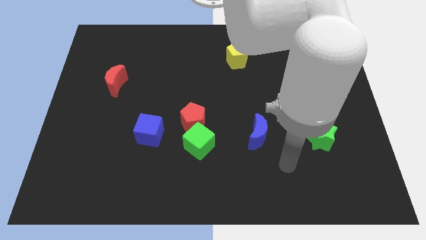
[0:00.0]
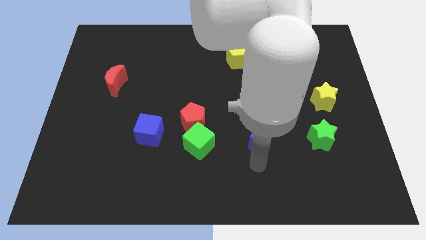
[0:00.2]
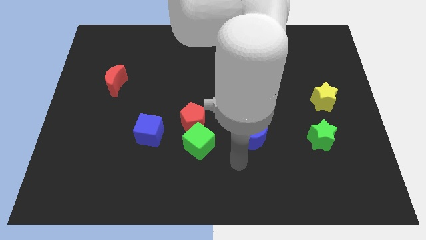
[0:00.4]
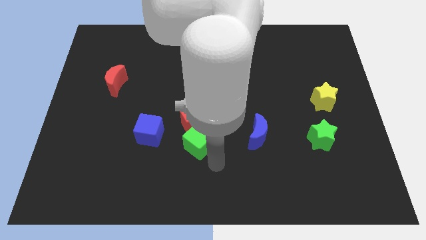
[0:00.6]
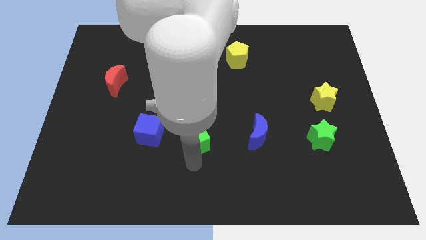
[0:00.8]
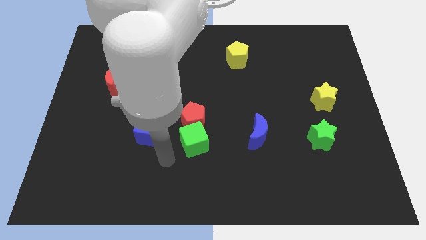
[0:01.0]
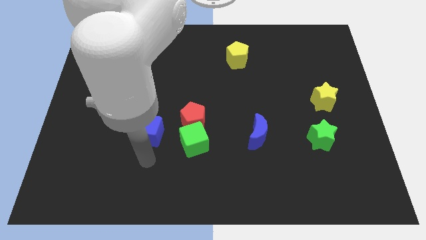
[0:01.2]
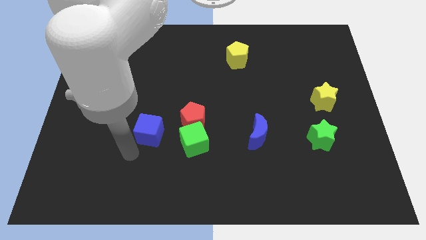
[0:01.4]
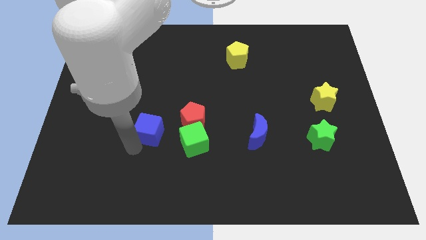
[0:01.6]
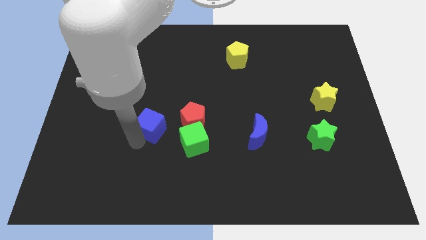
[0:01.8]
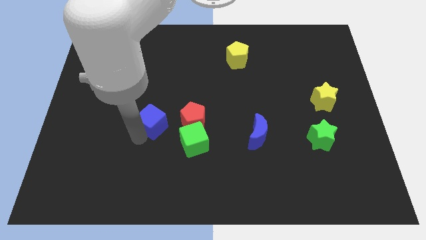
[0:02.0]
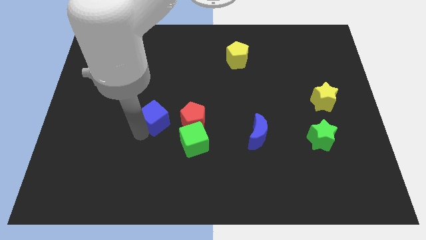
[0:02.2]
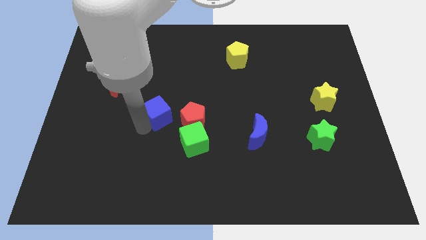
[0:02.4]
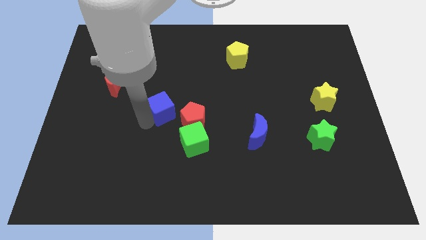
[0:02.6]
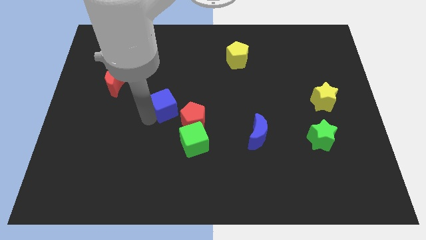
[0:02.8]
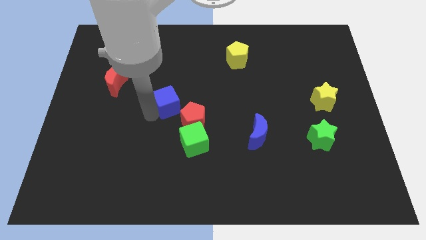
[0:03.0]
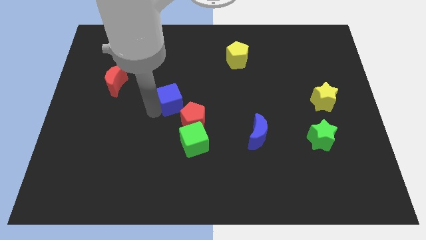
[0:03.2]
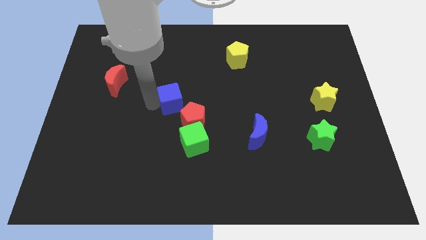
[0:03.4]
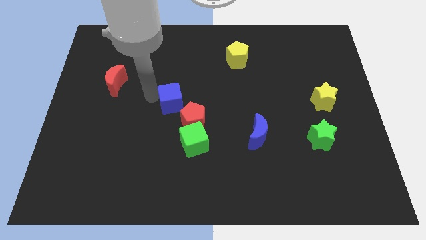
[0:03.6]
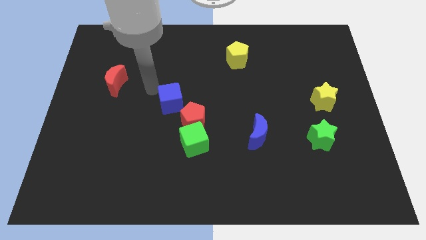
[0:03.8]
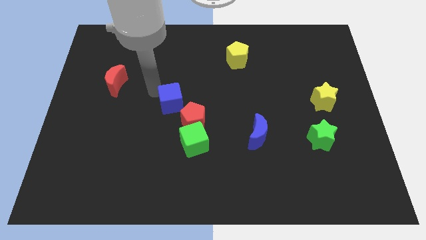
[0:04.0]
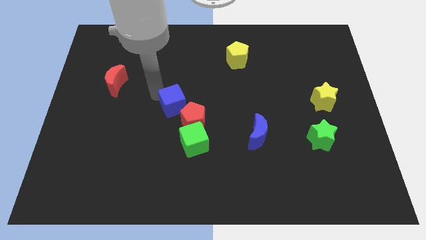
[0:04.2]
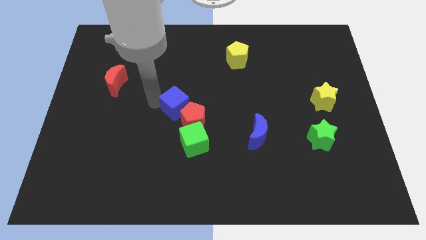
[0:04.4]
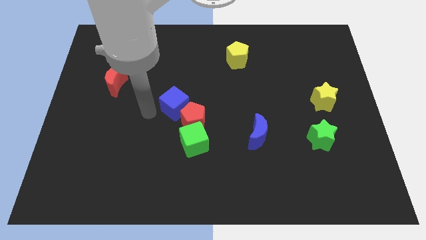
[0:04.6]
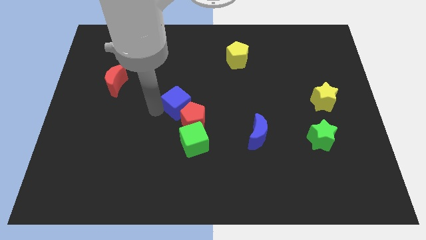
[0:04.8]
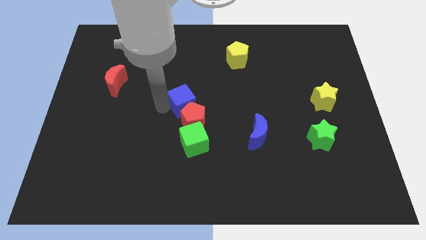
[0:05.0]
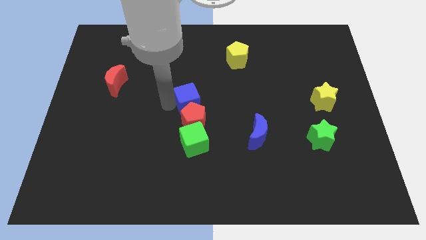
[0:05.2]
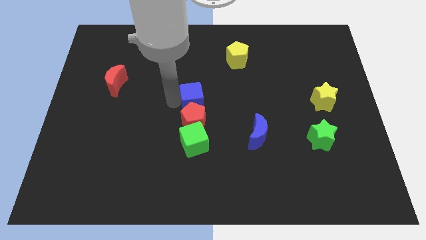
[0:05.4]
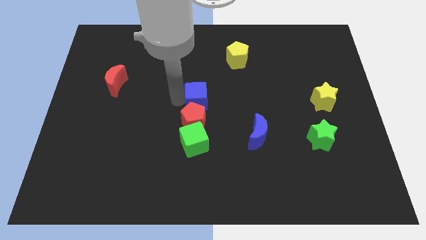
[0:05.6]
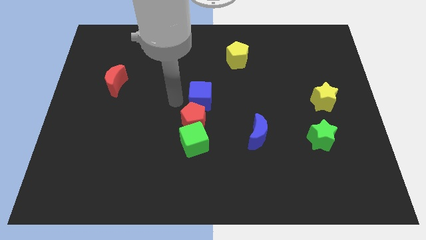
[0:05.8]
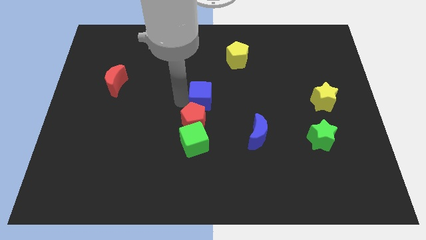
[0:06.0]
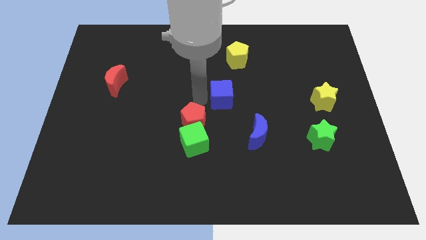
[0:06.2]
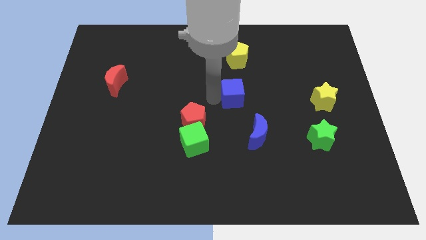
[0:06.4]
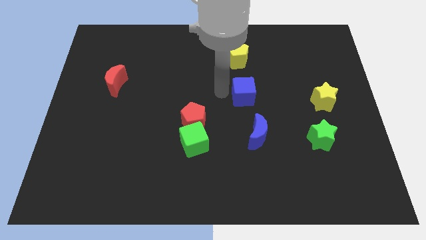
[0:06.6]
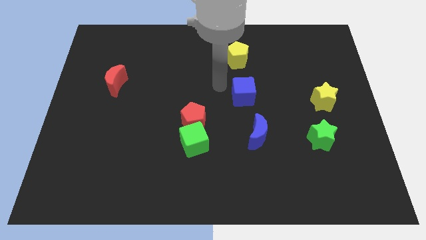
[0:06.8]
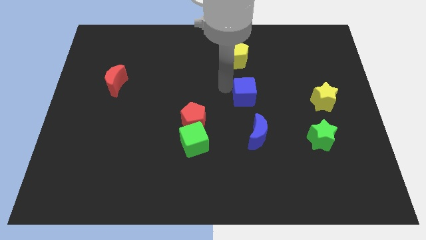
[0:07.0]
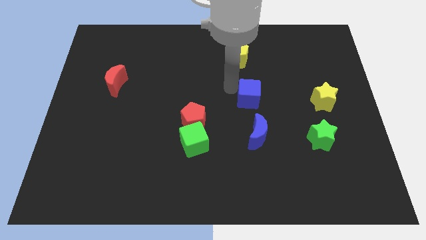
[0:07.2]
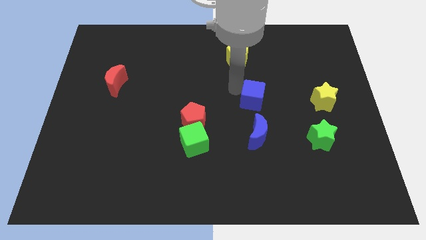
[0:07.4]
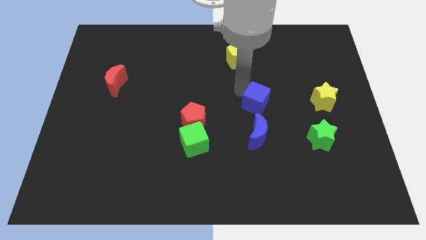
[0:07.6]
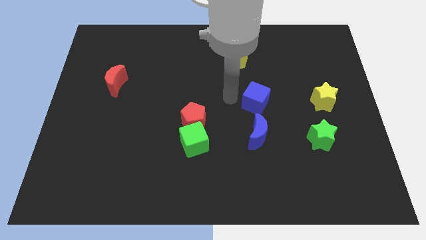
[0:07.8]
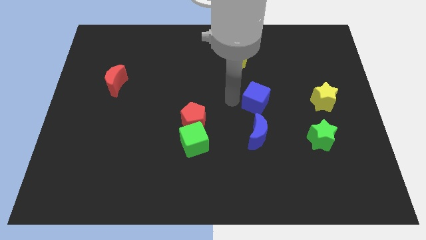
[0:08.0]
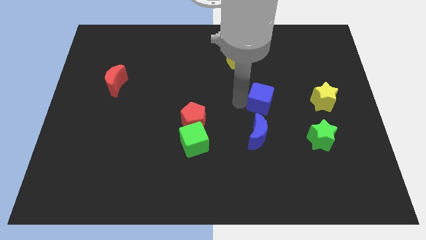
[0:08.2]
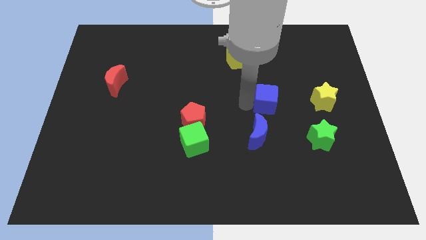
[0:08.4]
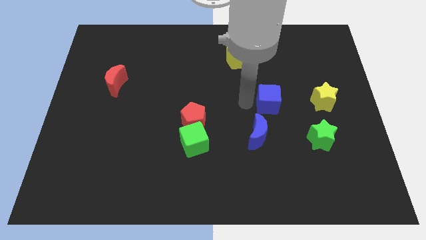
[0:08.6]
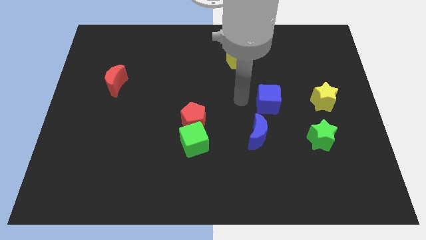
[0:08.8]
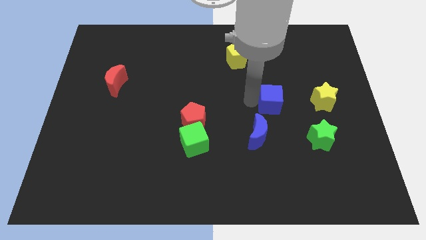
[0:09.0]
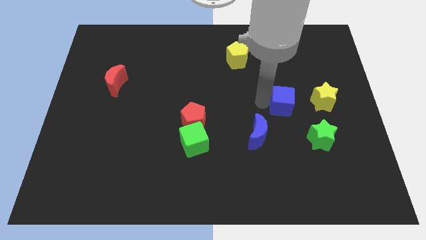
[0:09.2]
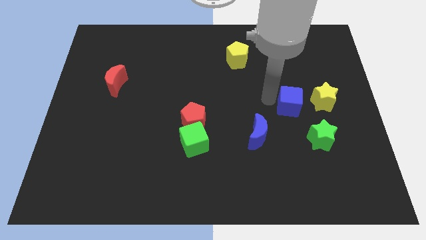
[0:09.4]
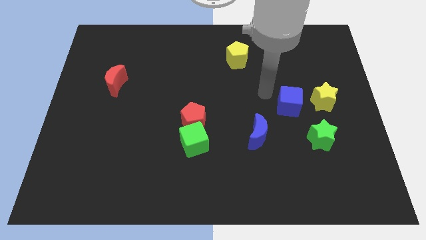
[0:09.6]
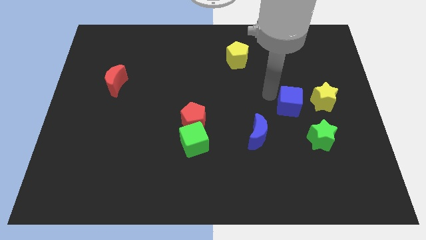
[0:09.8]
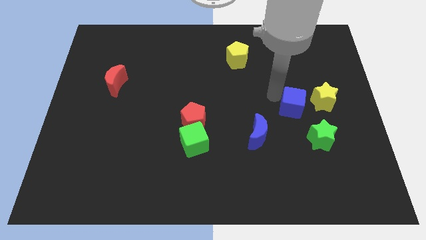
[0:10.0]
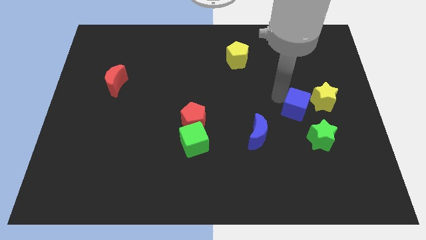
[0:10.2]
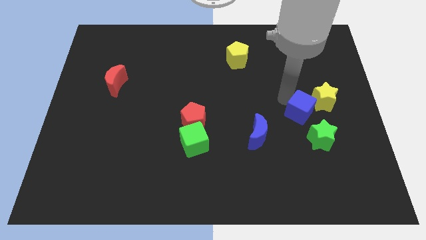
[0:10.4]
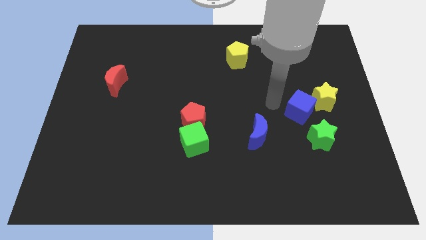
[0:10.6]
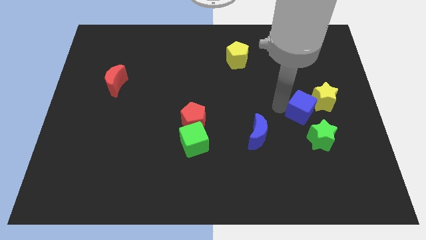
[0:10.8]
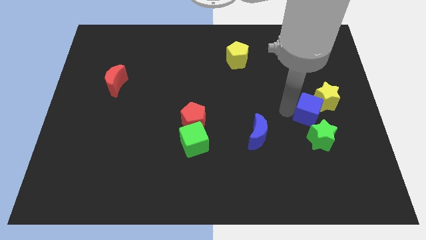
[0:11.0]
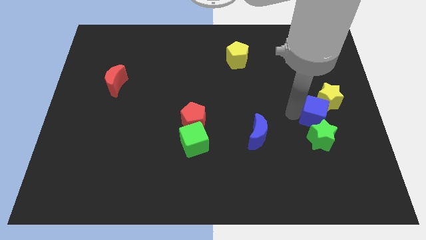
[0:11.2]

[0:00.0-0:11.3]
slide the blue cube diagonally up and to the right of the green star

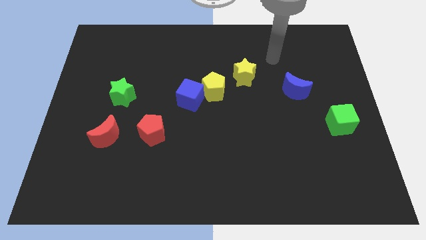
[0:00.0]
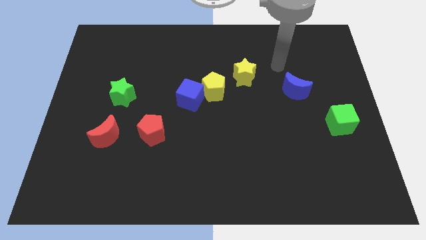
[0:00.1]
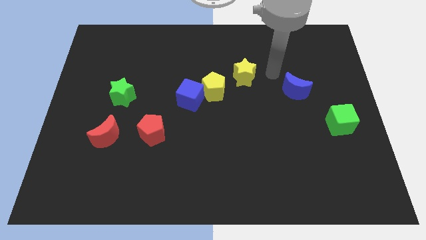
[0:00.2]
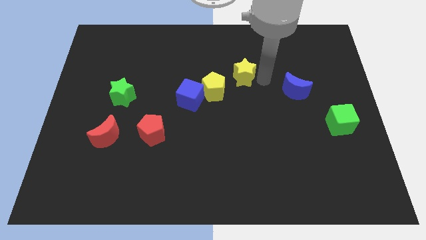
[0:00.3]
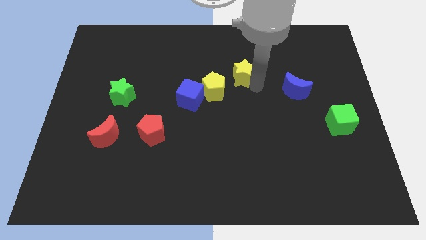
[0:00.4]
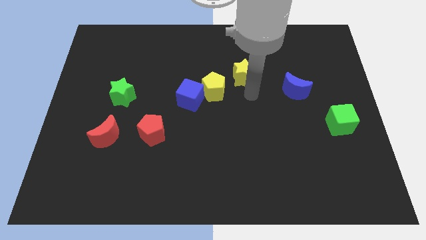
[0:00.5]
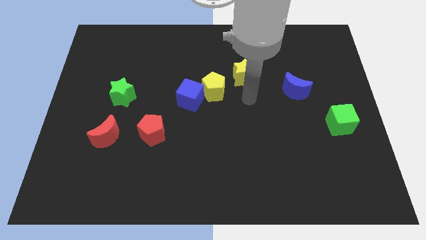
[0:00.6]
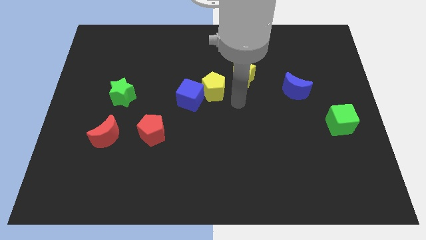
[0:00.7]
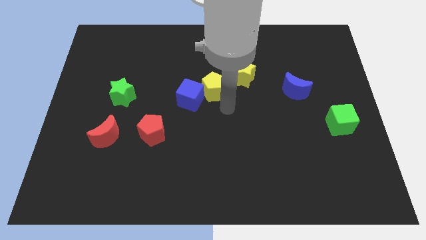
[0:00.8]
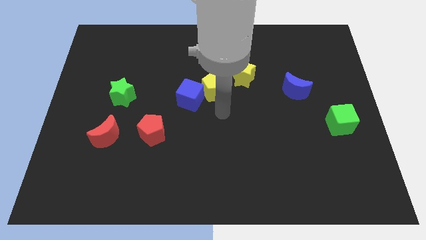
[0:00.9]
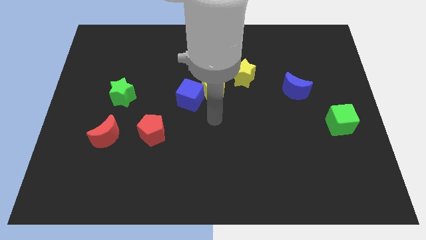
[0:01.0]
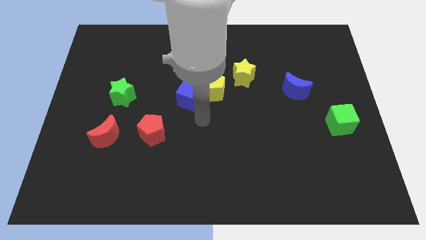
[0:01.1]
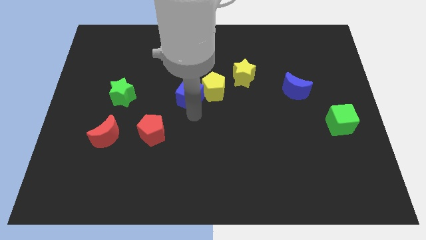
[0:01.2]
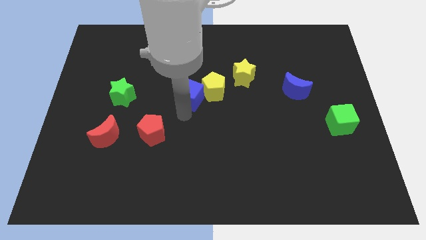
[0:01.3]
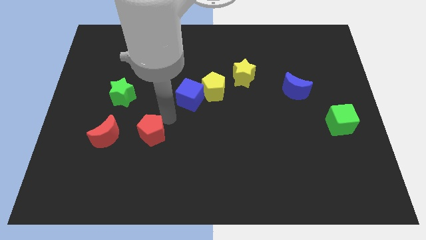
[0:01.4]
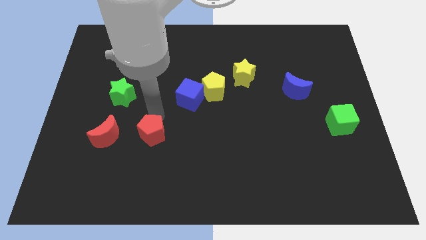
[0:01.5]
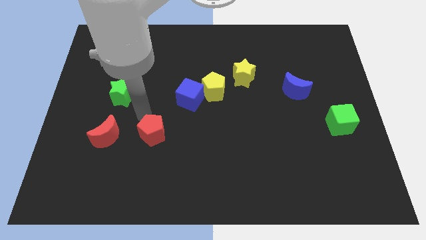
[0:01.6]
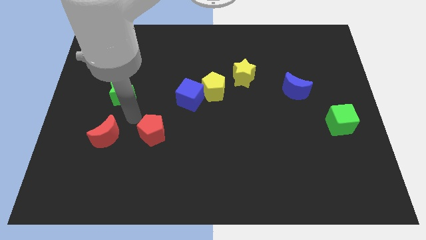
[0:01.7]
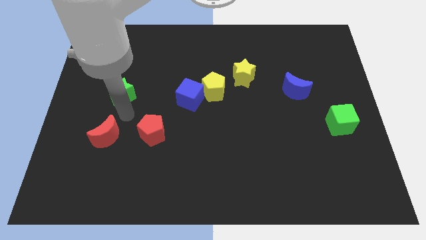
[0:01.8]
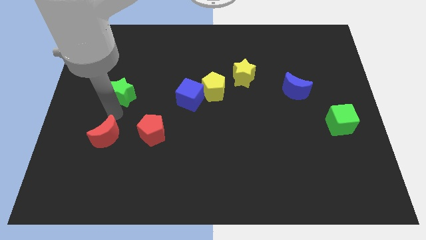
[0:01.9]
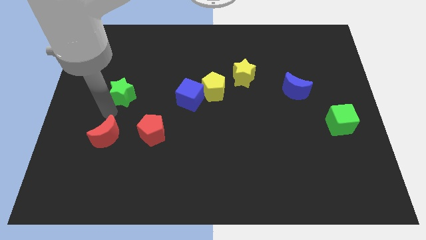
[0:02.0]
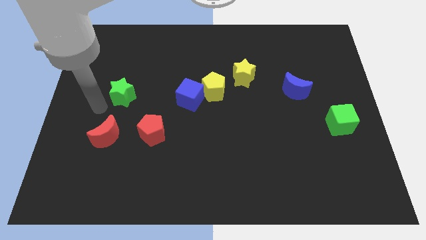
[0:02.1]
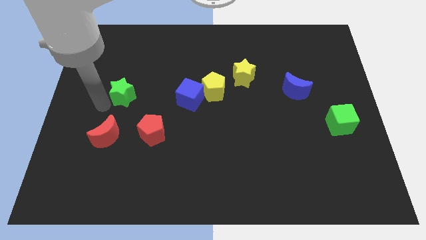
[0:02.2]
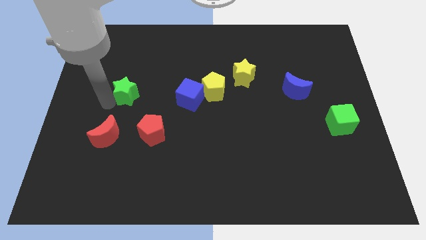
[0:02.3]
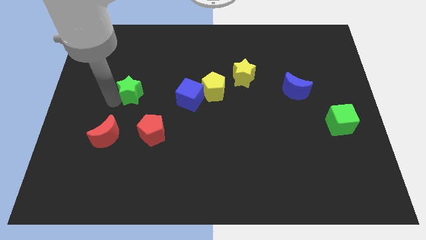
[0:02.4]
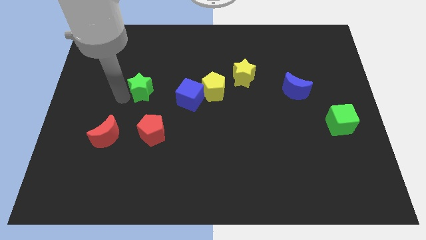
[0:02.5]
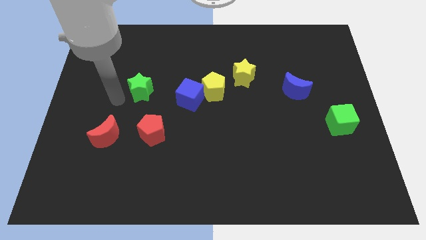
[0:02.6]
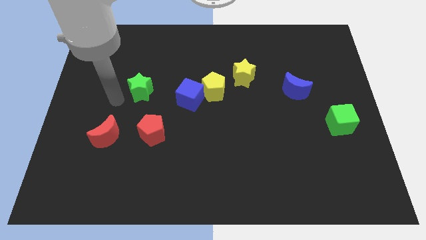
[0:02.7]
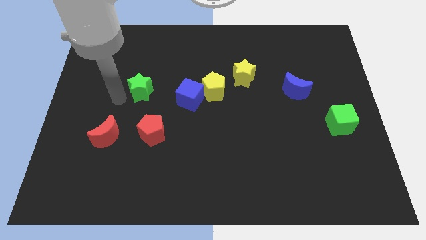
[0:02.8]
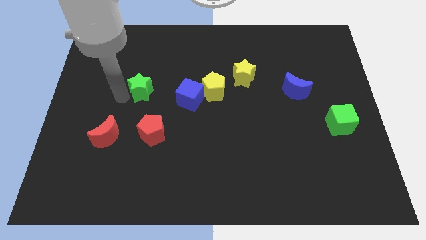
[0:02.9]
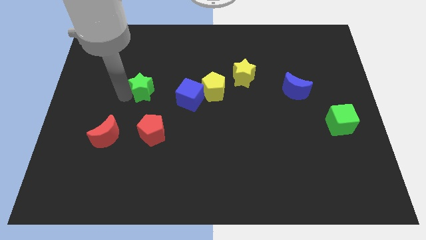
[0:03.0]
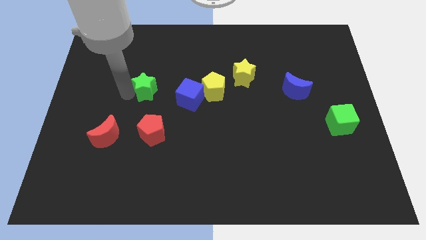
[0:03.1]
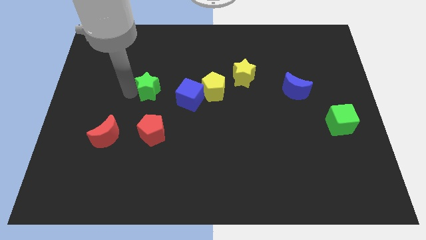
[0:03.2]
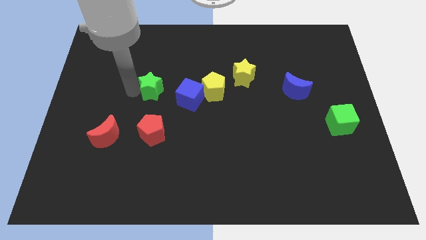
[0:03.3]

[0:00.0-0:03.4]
put the green star diagonally up and to the left of the blue cube
